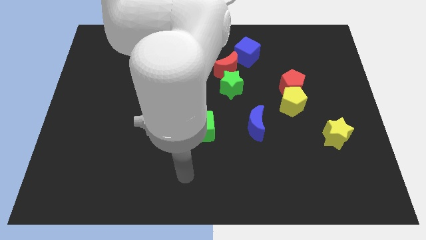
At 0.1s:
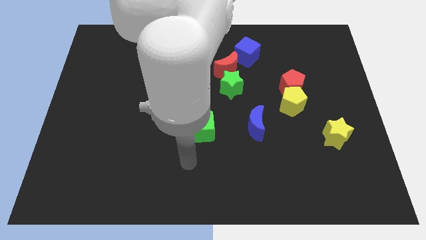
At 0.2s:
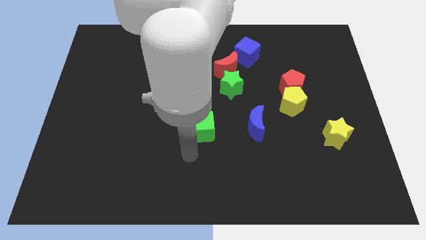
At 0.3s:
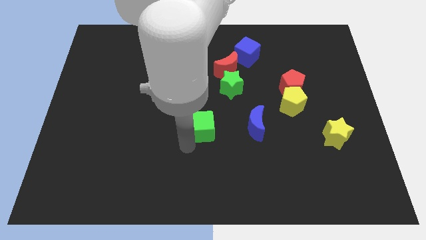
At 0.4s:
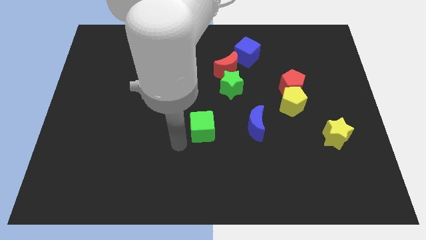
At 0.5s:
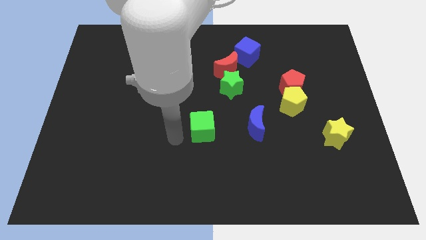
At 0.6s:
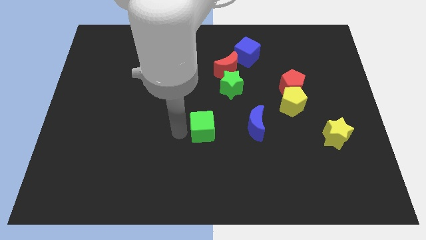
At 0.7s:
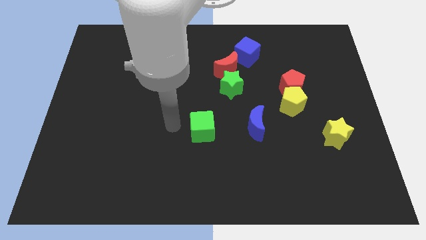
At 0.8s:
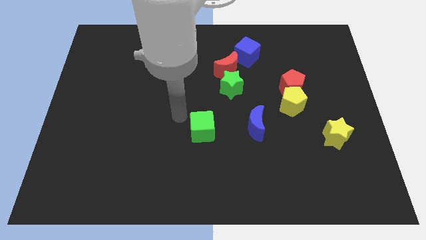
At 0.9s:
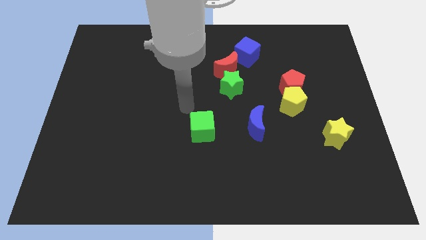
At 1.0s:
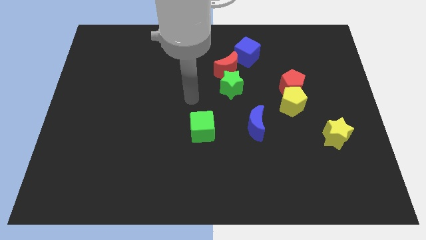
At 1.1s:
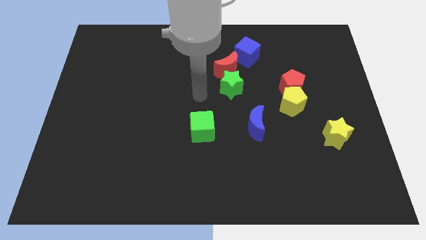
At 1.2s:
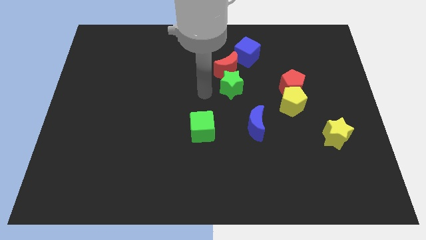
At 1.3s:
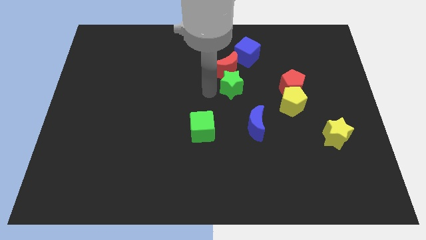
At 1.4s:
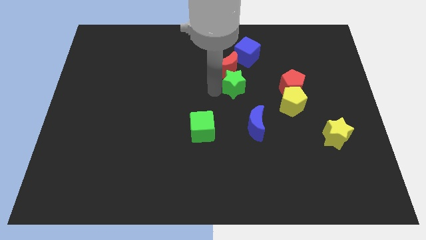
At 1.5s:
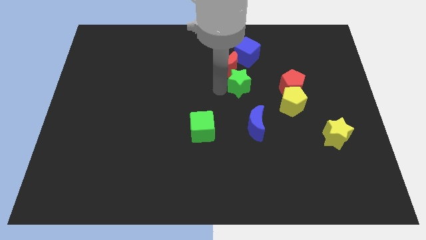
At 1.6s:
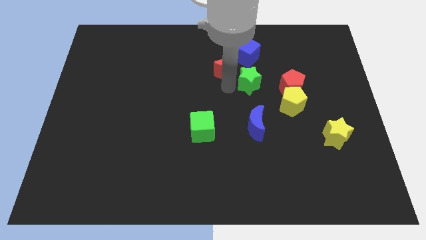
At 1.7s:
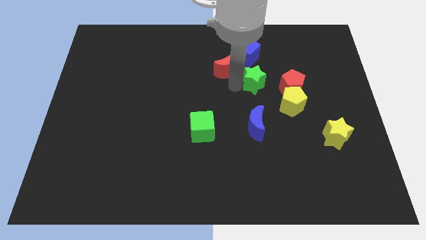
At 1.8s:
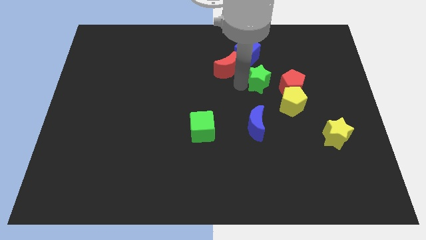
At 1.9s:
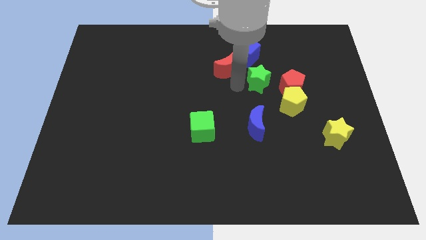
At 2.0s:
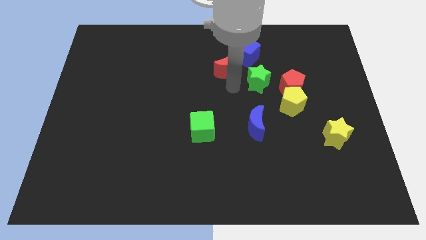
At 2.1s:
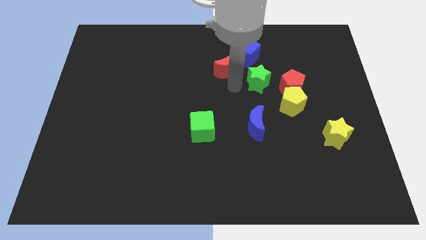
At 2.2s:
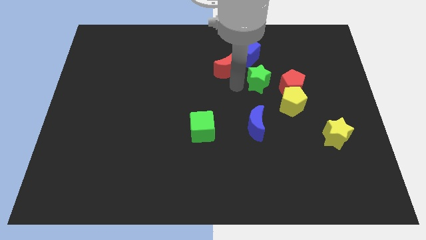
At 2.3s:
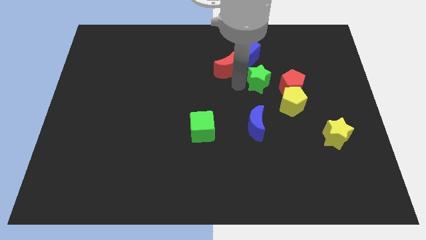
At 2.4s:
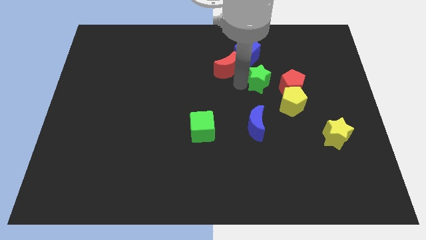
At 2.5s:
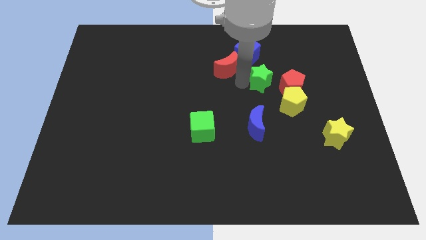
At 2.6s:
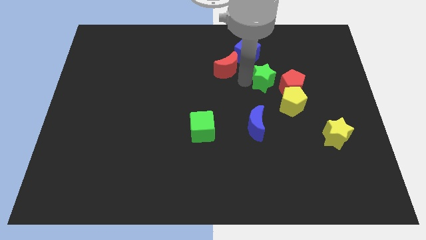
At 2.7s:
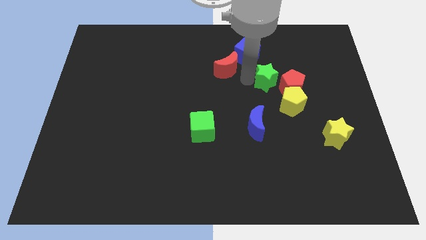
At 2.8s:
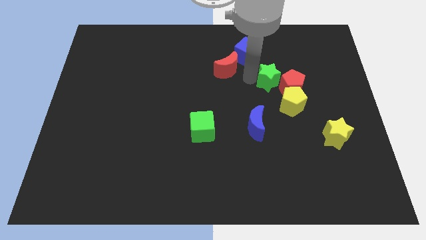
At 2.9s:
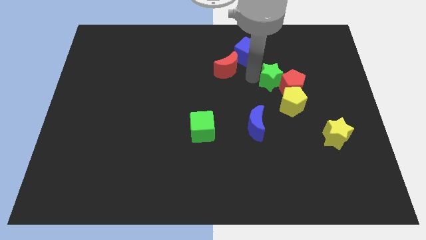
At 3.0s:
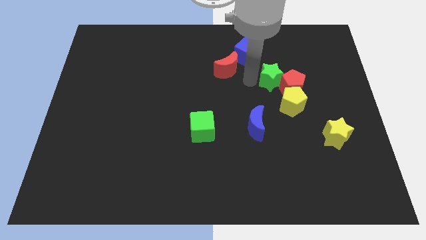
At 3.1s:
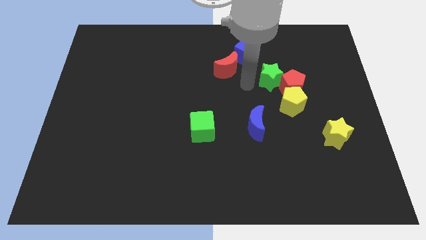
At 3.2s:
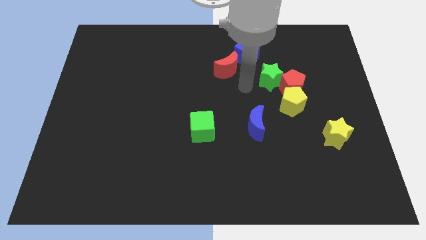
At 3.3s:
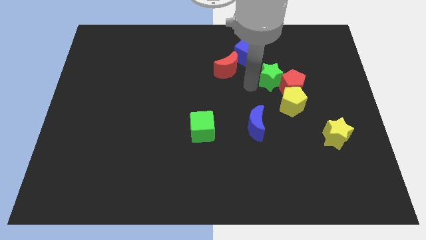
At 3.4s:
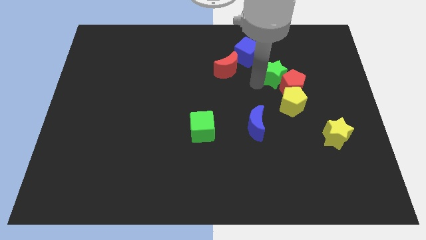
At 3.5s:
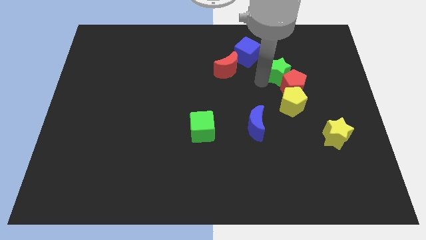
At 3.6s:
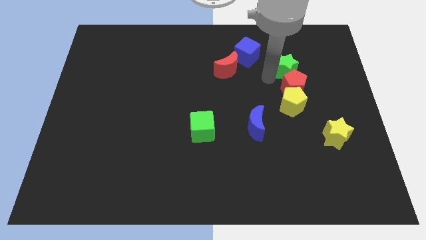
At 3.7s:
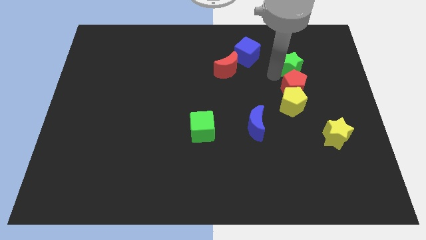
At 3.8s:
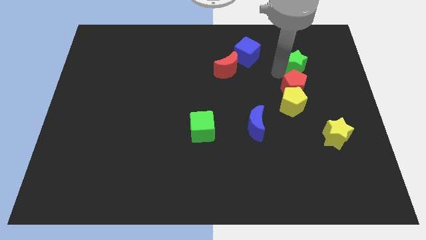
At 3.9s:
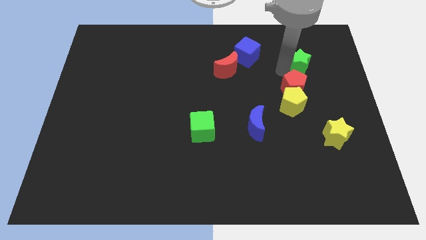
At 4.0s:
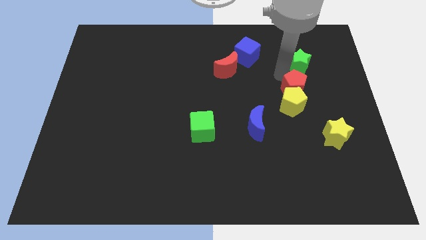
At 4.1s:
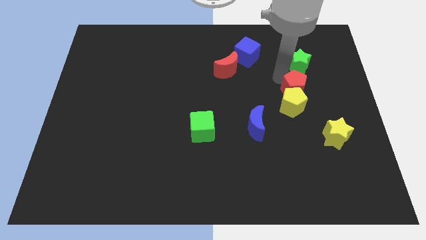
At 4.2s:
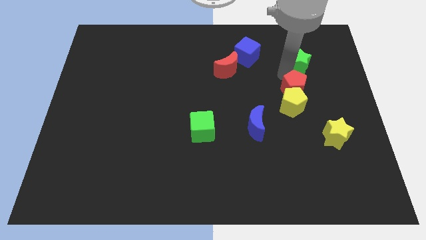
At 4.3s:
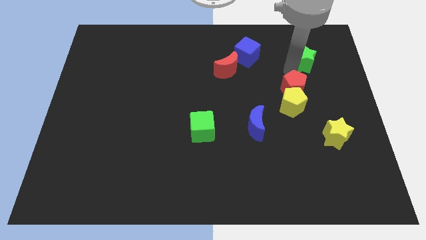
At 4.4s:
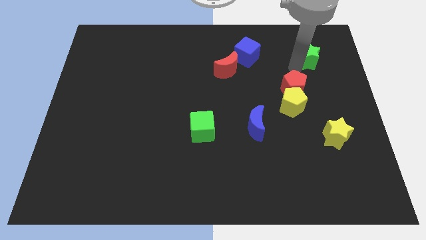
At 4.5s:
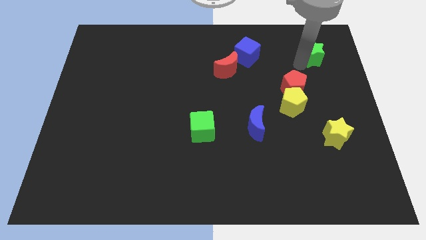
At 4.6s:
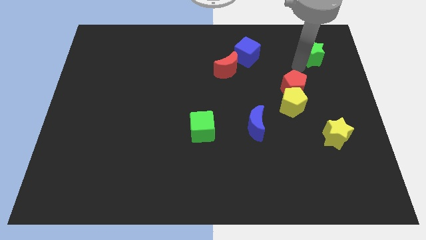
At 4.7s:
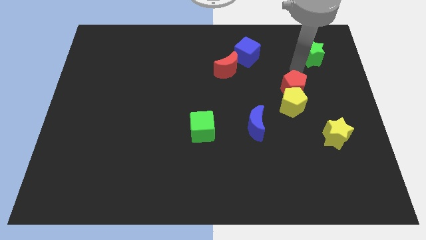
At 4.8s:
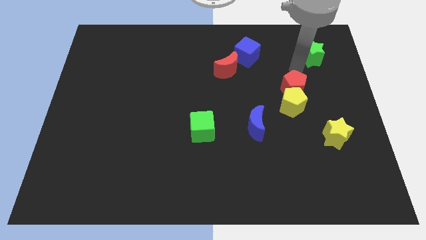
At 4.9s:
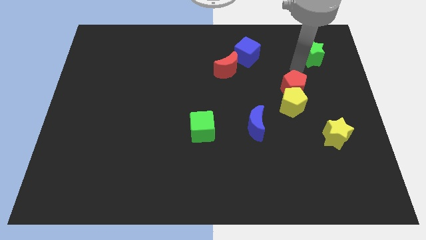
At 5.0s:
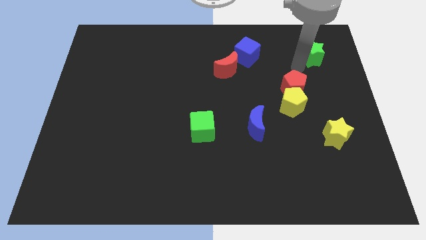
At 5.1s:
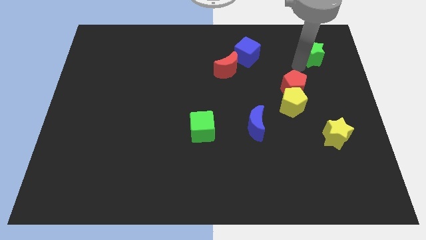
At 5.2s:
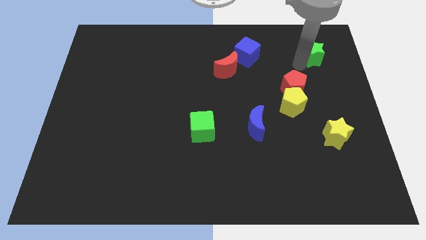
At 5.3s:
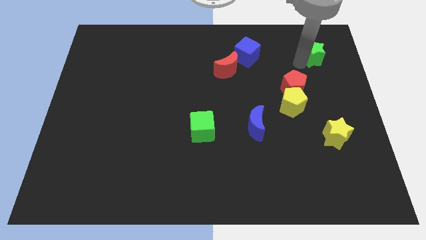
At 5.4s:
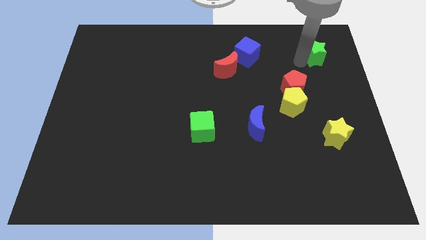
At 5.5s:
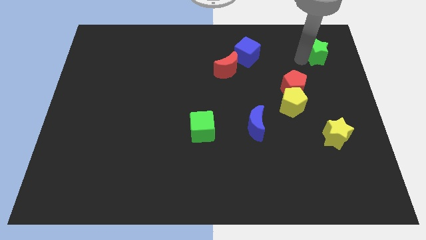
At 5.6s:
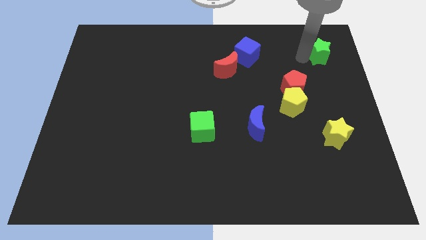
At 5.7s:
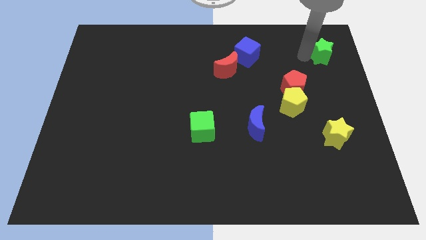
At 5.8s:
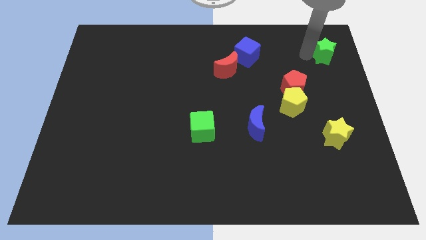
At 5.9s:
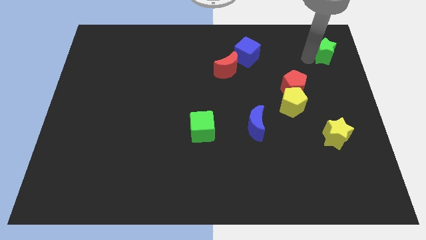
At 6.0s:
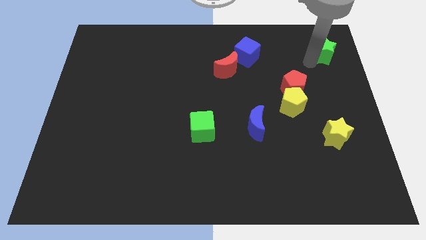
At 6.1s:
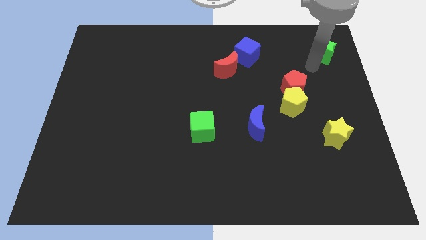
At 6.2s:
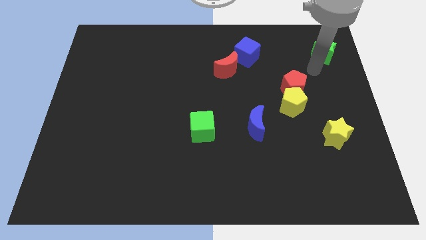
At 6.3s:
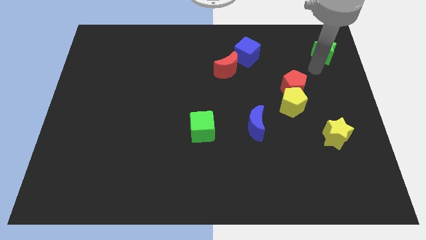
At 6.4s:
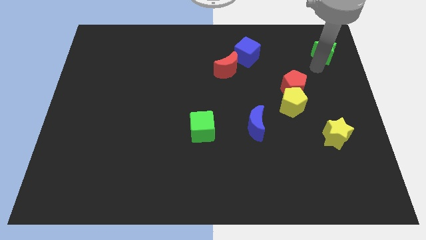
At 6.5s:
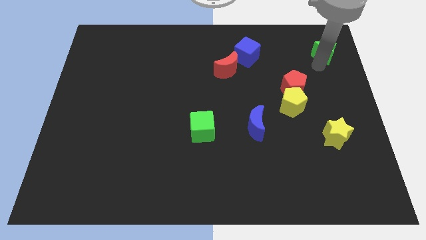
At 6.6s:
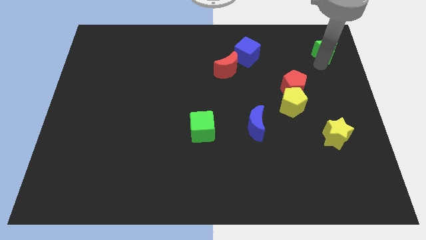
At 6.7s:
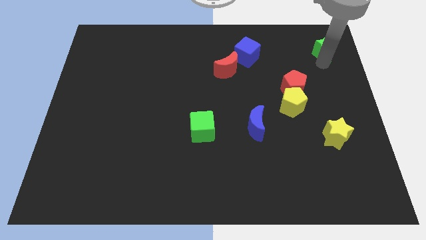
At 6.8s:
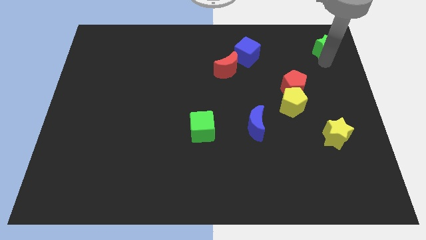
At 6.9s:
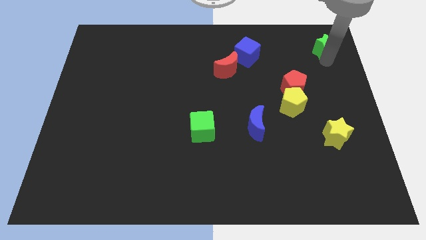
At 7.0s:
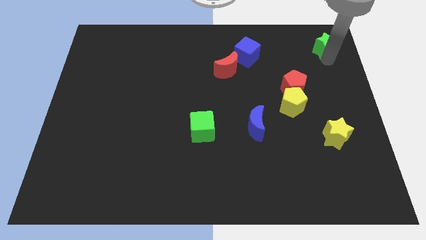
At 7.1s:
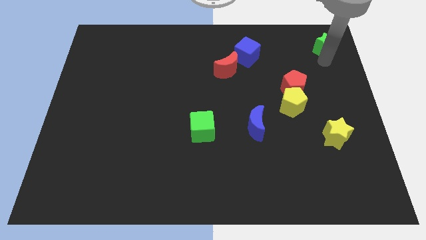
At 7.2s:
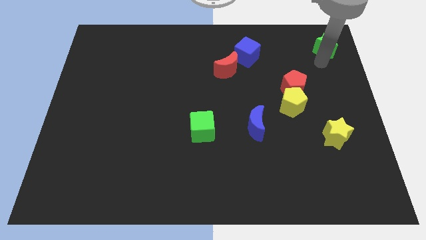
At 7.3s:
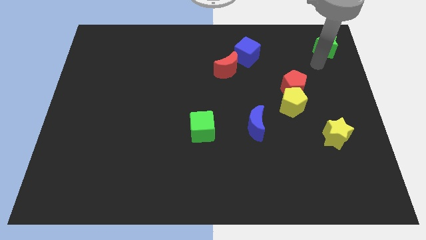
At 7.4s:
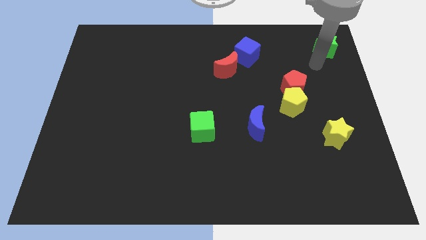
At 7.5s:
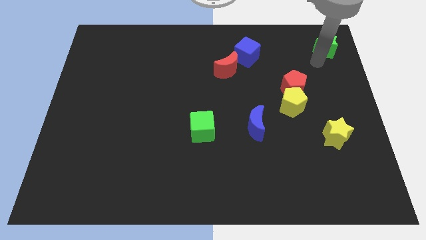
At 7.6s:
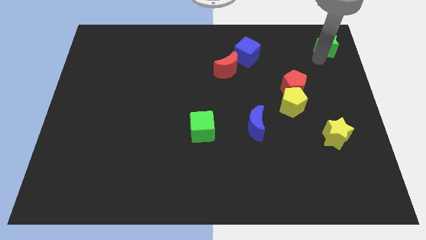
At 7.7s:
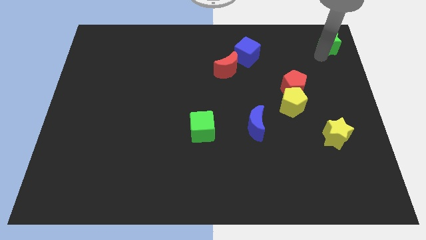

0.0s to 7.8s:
push the green star to the top right of the board
